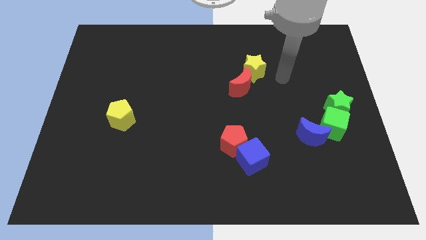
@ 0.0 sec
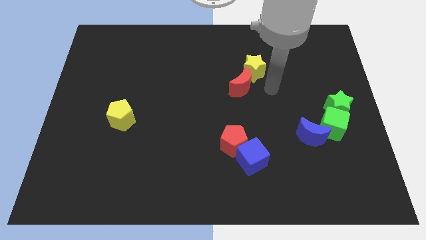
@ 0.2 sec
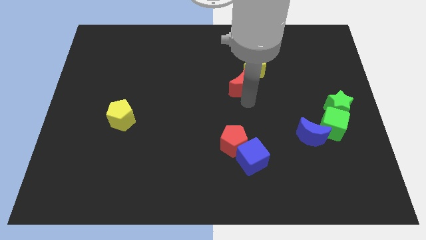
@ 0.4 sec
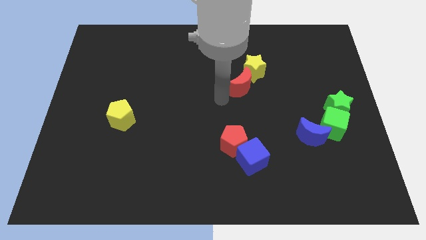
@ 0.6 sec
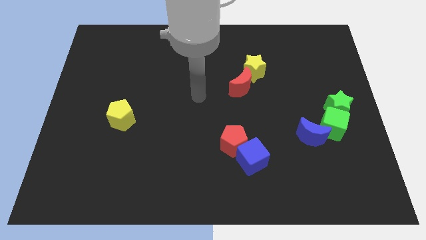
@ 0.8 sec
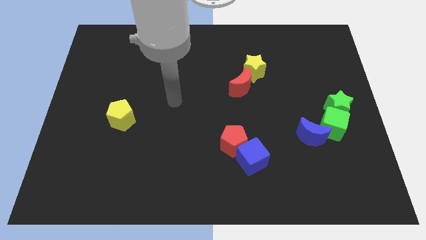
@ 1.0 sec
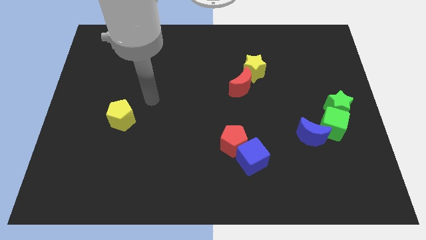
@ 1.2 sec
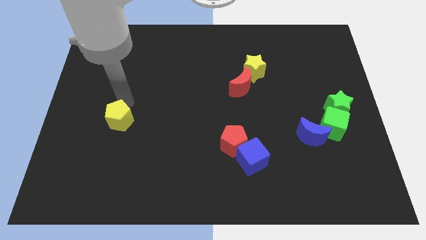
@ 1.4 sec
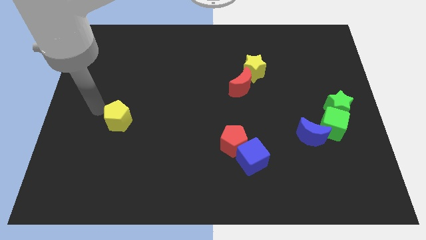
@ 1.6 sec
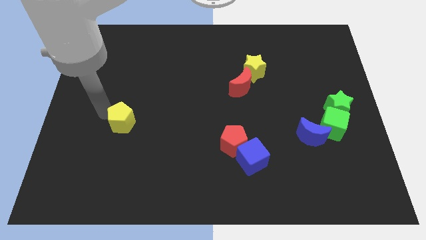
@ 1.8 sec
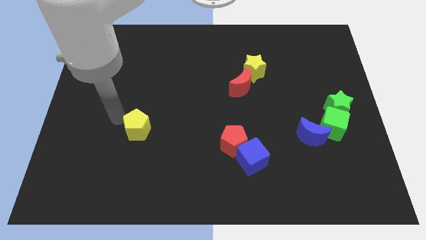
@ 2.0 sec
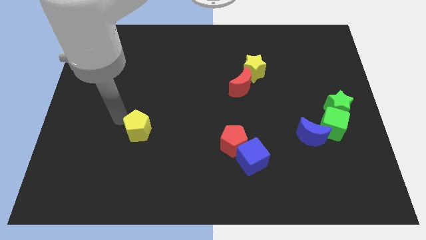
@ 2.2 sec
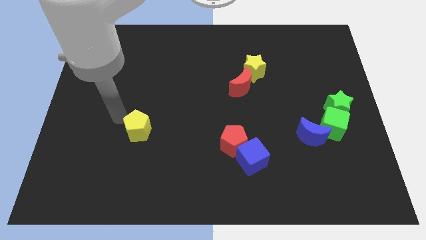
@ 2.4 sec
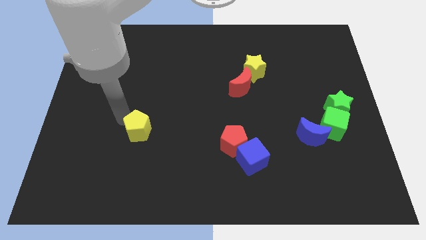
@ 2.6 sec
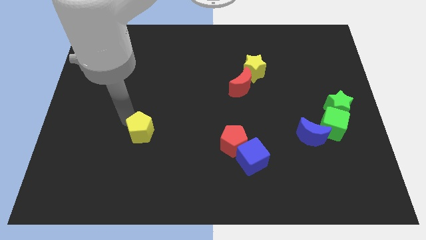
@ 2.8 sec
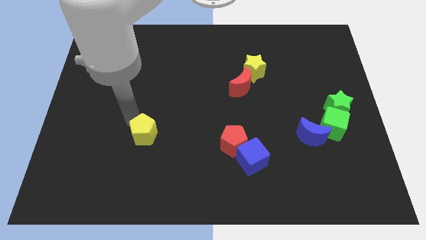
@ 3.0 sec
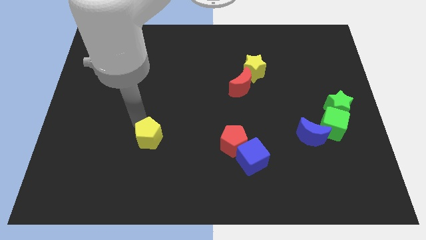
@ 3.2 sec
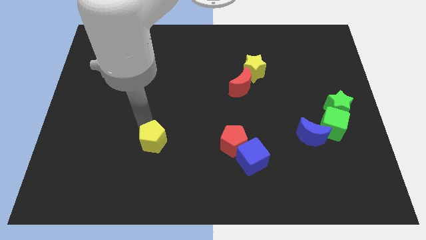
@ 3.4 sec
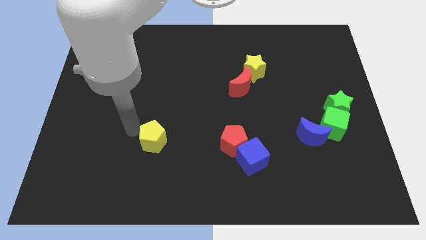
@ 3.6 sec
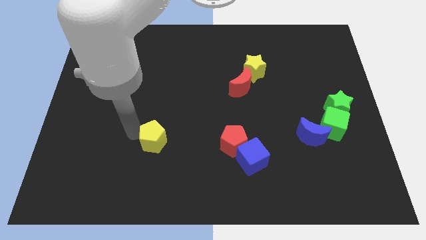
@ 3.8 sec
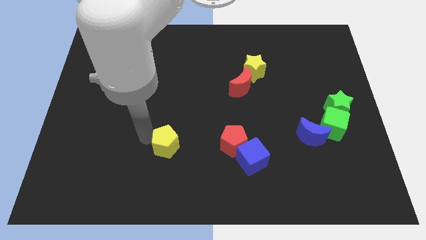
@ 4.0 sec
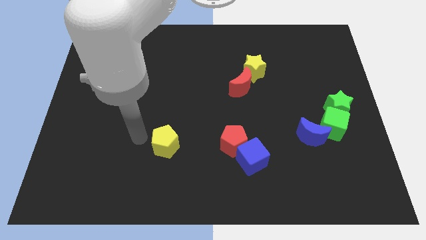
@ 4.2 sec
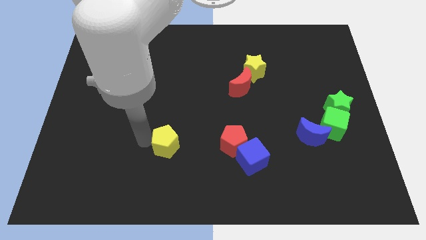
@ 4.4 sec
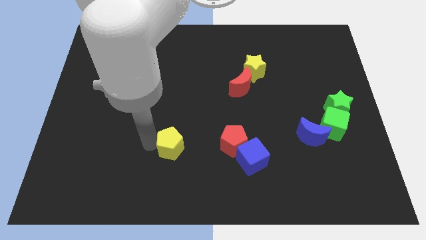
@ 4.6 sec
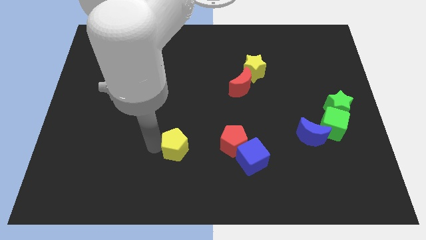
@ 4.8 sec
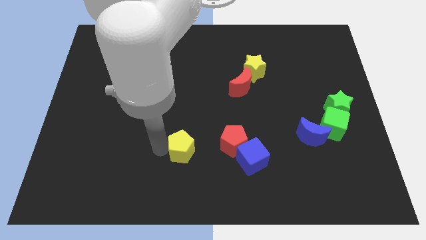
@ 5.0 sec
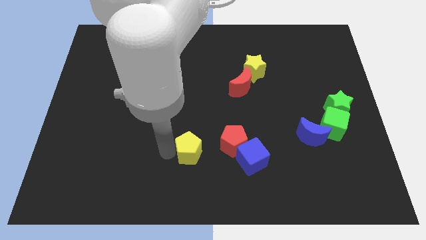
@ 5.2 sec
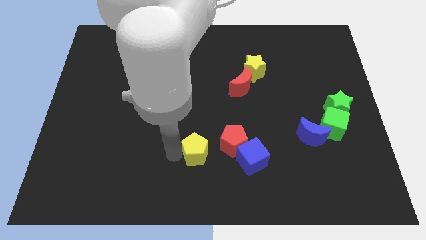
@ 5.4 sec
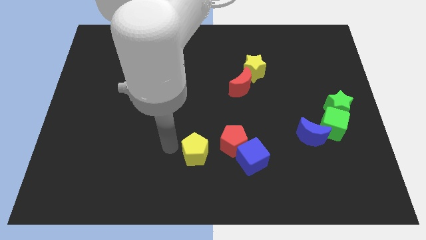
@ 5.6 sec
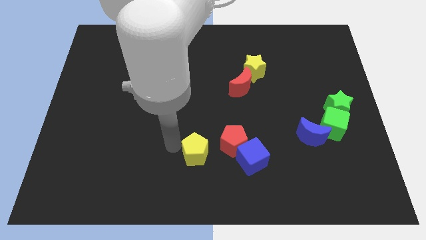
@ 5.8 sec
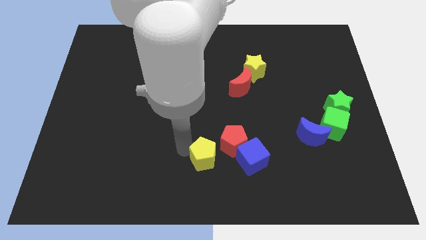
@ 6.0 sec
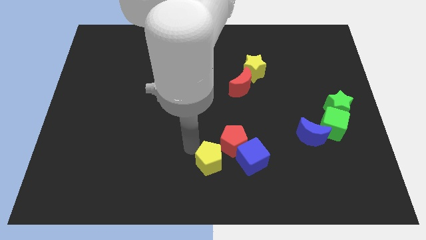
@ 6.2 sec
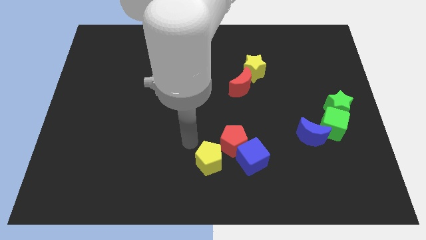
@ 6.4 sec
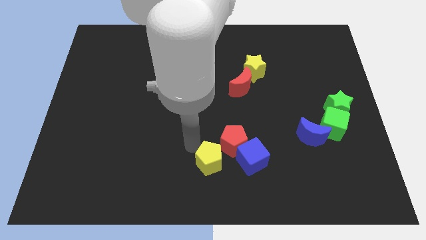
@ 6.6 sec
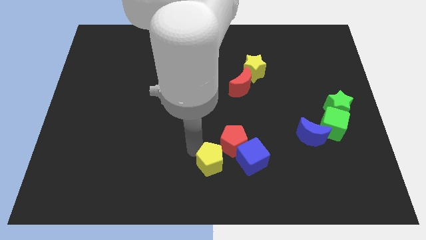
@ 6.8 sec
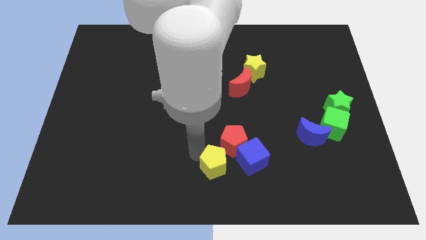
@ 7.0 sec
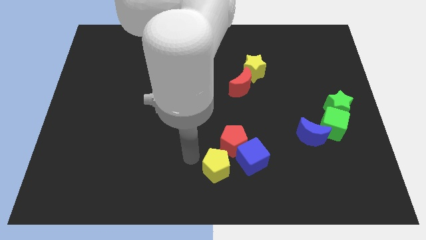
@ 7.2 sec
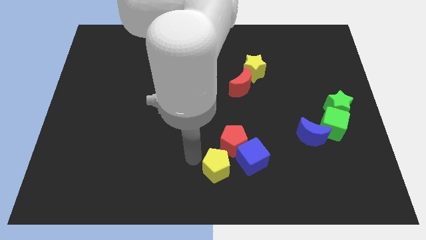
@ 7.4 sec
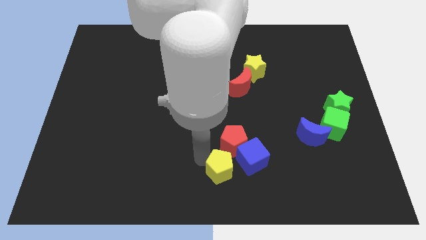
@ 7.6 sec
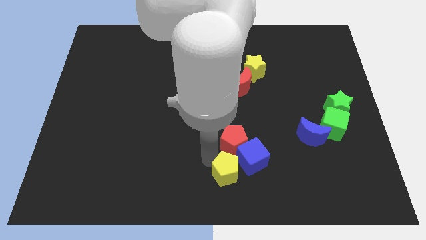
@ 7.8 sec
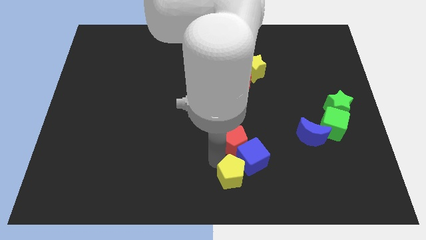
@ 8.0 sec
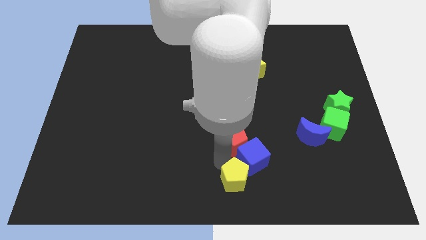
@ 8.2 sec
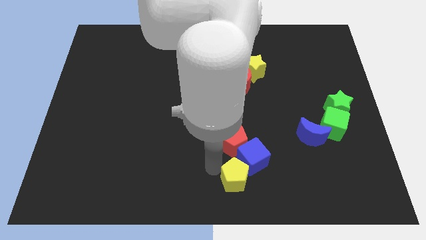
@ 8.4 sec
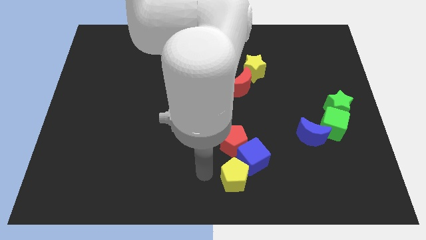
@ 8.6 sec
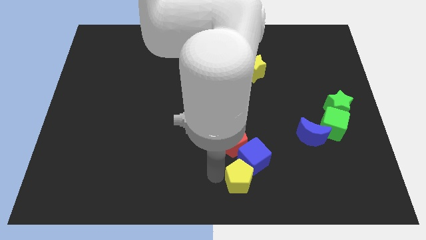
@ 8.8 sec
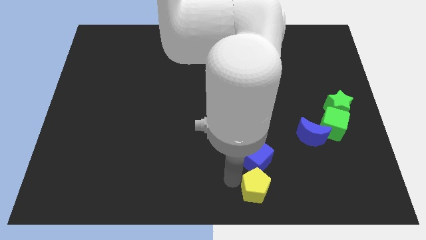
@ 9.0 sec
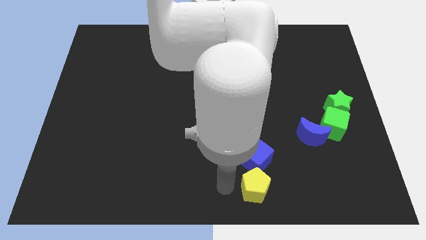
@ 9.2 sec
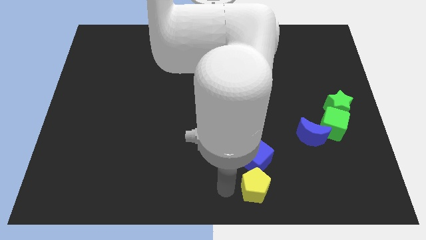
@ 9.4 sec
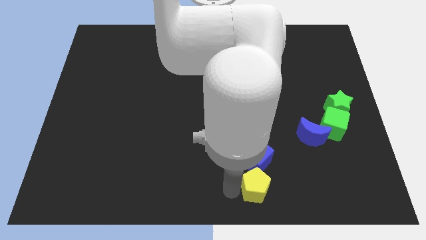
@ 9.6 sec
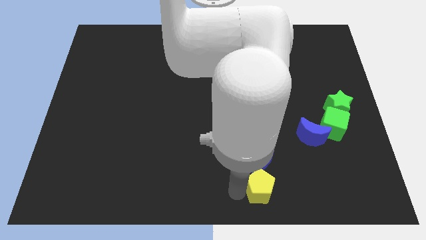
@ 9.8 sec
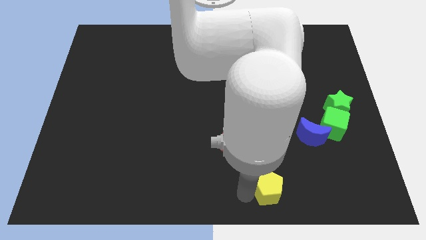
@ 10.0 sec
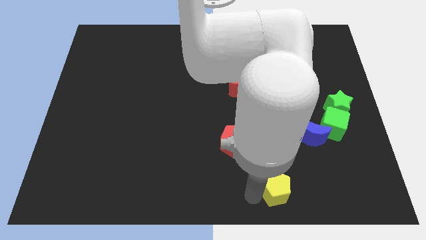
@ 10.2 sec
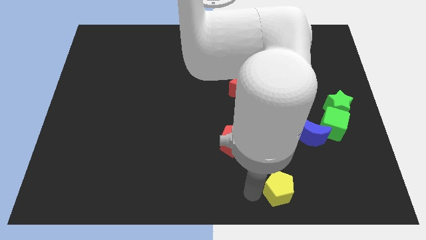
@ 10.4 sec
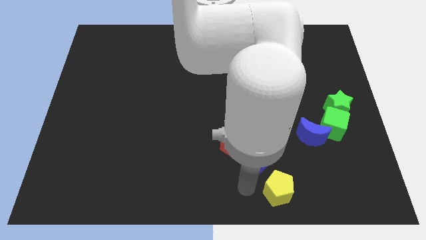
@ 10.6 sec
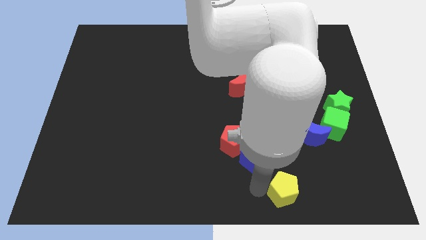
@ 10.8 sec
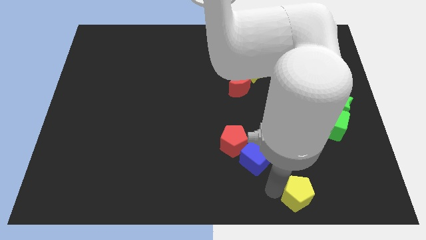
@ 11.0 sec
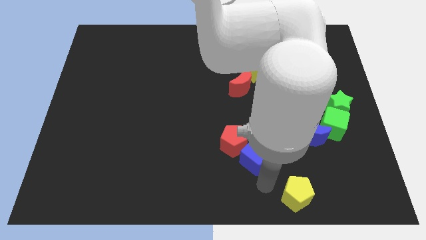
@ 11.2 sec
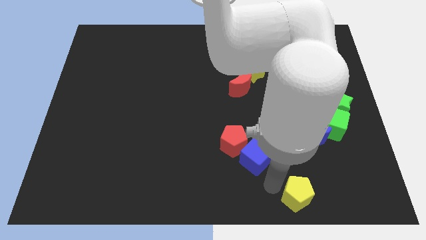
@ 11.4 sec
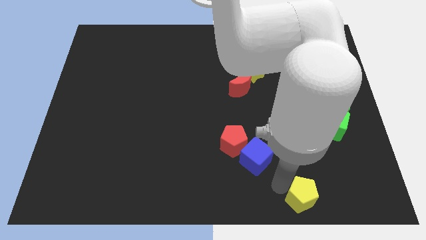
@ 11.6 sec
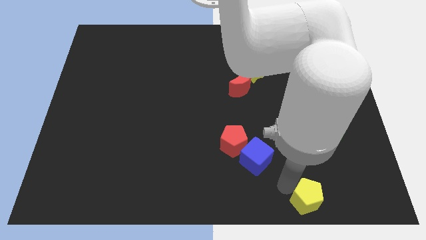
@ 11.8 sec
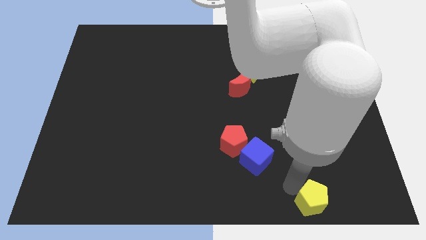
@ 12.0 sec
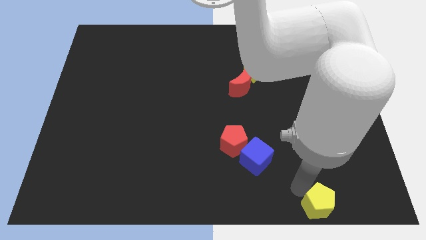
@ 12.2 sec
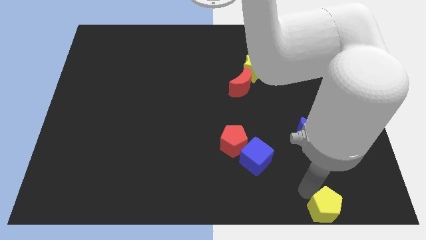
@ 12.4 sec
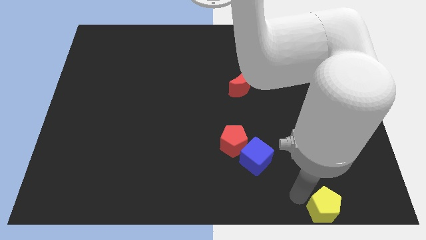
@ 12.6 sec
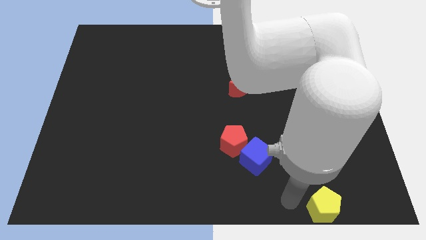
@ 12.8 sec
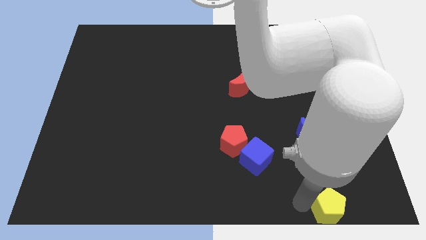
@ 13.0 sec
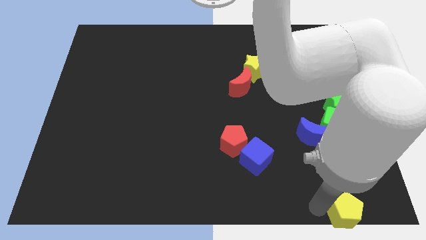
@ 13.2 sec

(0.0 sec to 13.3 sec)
slide the yellow pentagon to the bottom right of the board
